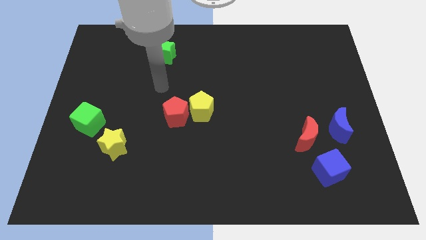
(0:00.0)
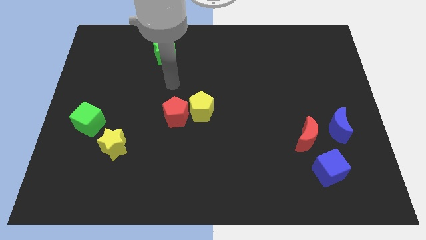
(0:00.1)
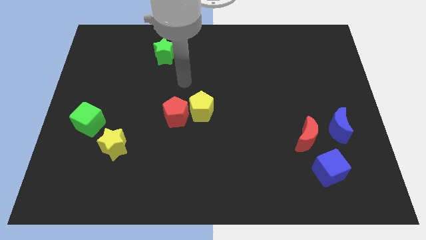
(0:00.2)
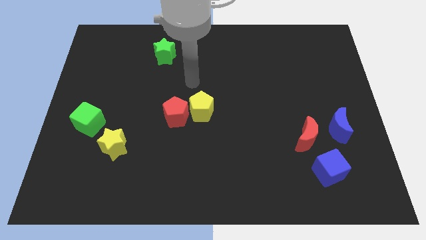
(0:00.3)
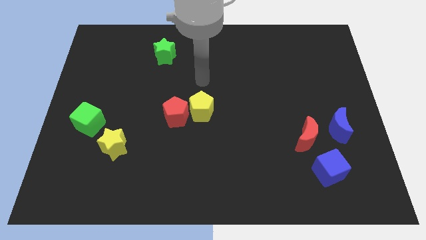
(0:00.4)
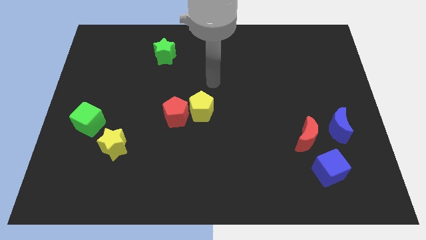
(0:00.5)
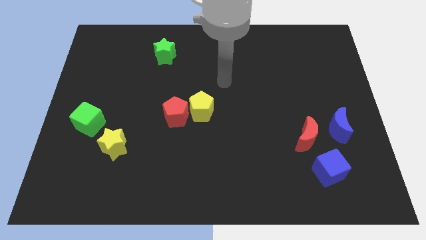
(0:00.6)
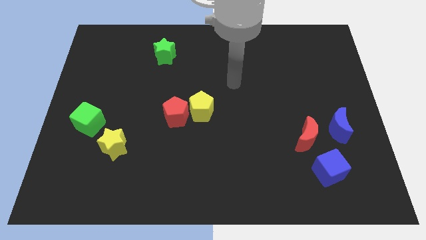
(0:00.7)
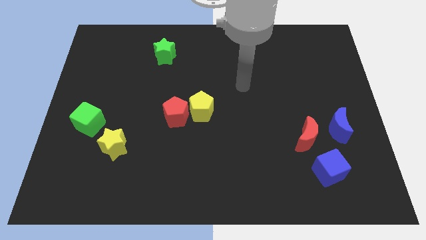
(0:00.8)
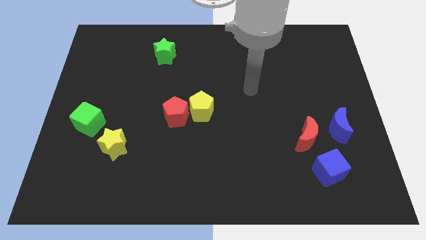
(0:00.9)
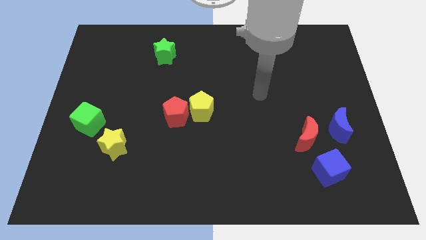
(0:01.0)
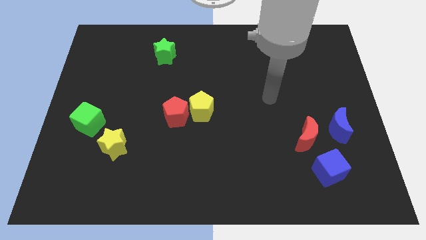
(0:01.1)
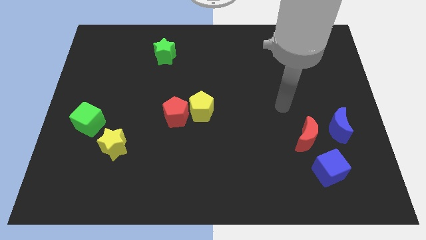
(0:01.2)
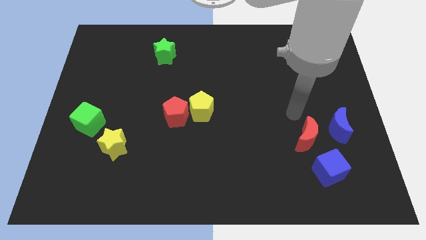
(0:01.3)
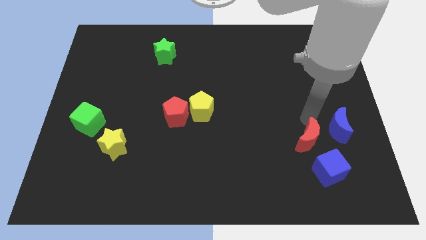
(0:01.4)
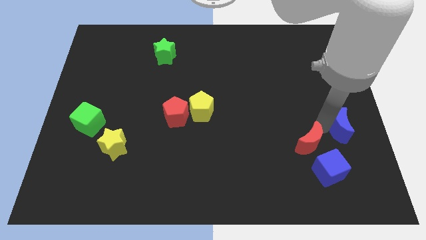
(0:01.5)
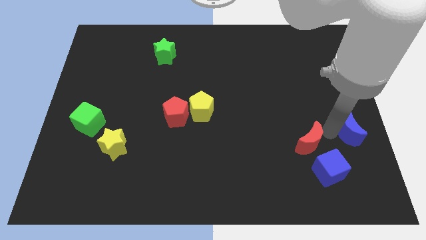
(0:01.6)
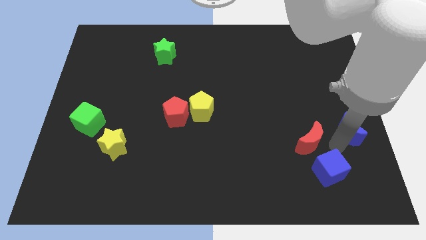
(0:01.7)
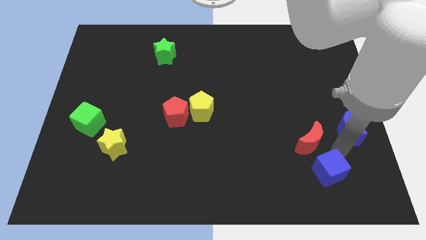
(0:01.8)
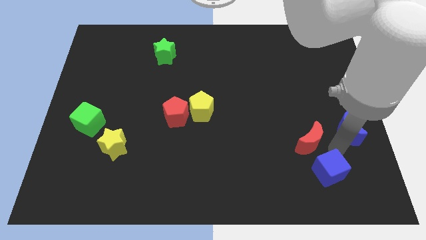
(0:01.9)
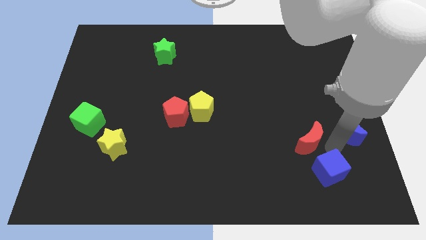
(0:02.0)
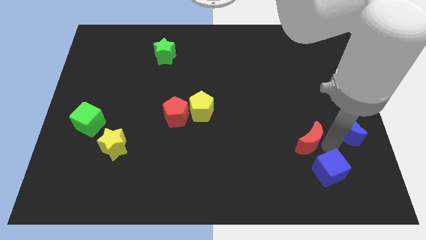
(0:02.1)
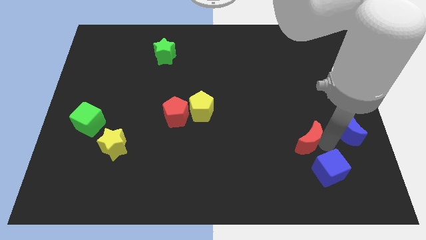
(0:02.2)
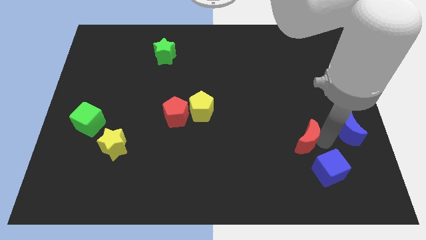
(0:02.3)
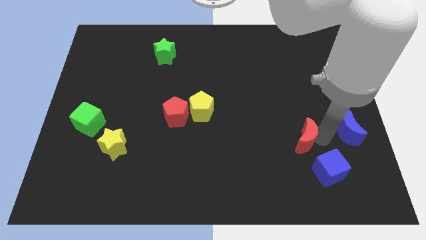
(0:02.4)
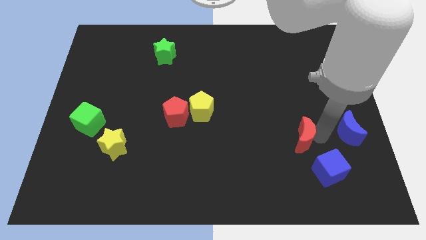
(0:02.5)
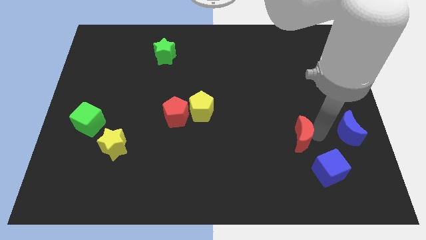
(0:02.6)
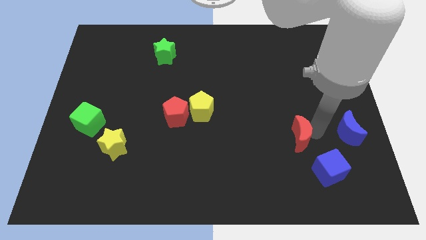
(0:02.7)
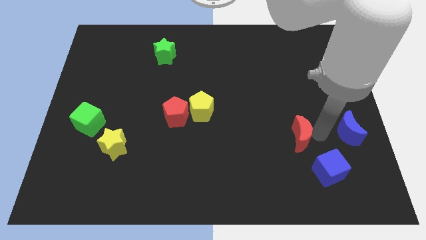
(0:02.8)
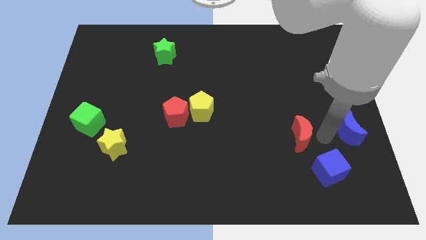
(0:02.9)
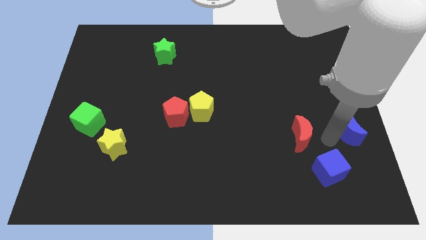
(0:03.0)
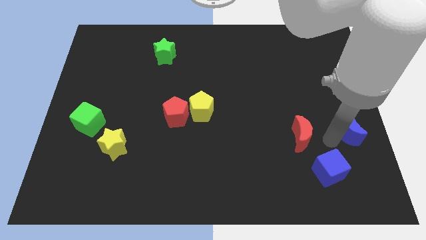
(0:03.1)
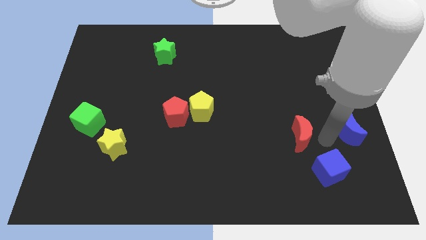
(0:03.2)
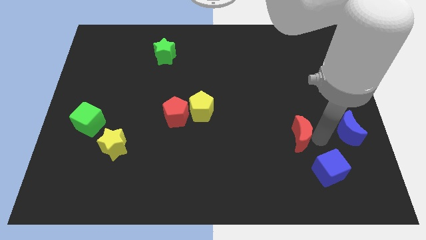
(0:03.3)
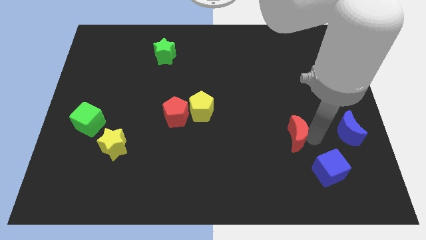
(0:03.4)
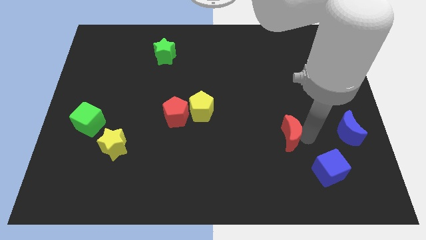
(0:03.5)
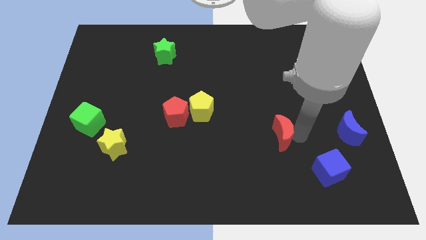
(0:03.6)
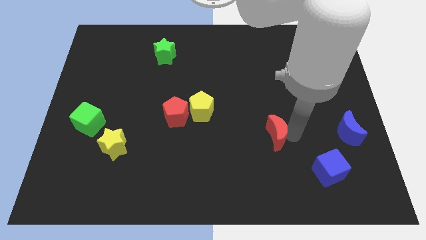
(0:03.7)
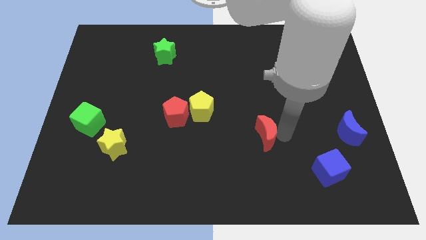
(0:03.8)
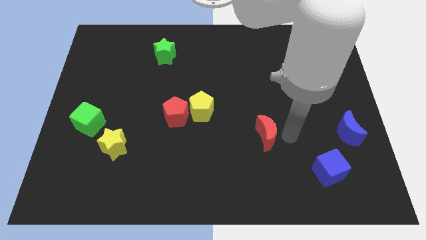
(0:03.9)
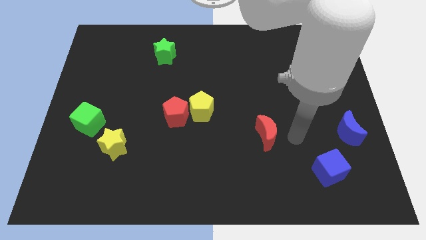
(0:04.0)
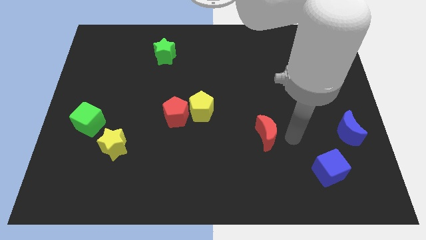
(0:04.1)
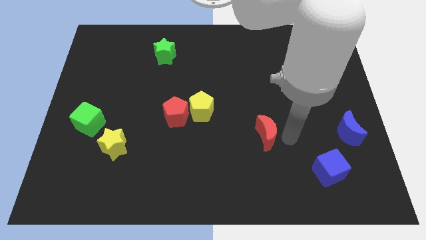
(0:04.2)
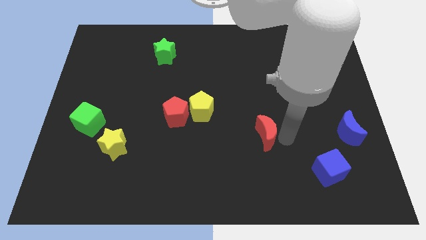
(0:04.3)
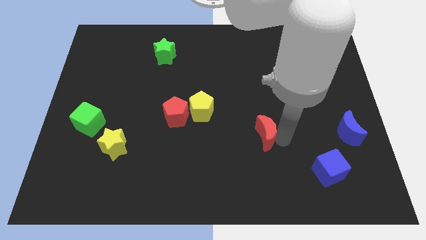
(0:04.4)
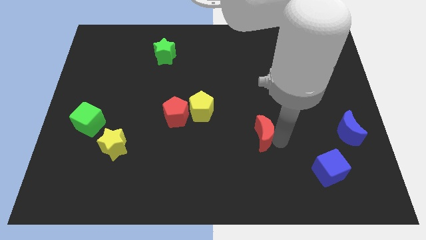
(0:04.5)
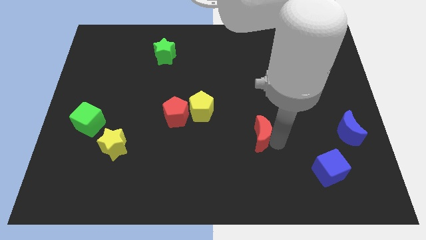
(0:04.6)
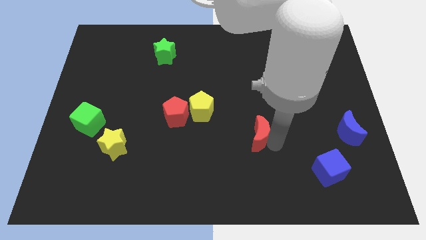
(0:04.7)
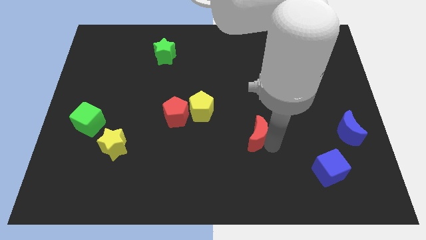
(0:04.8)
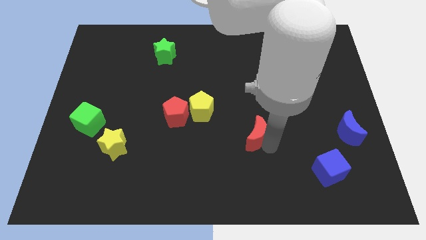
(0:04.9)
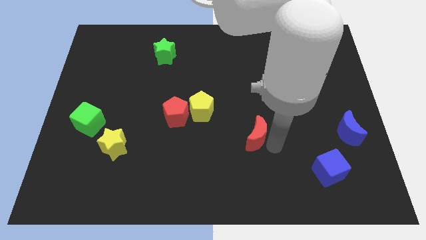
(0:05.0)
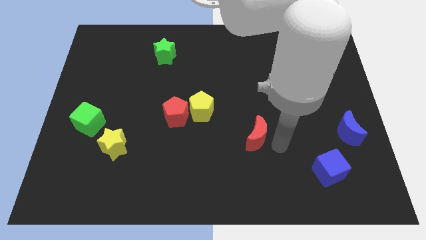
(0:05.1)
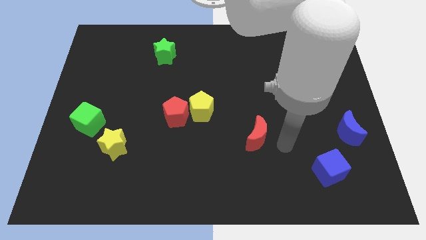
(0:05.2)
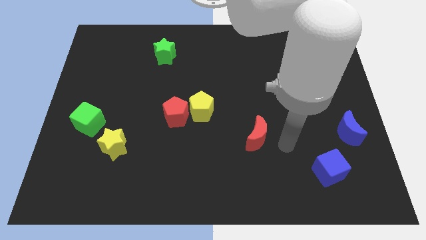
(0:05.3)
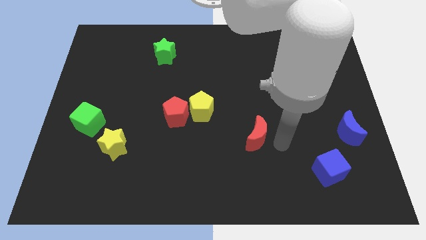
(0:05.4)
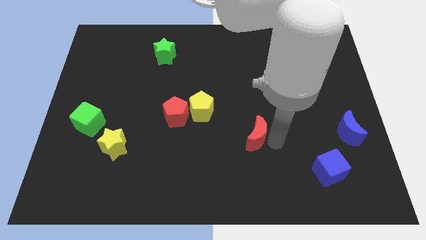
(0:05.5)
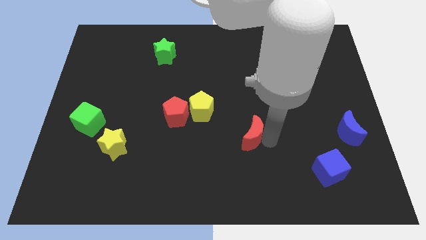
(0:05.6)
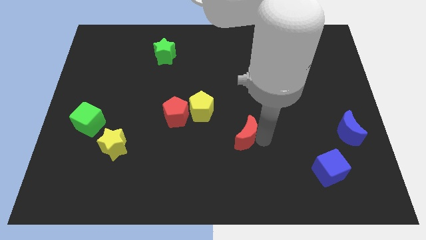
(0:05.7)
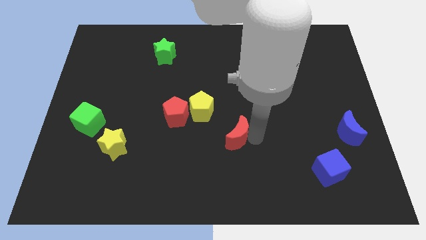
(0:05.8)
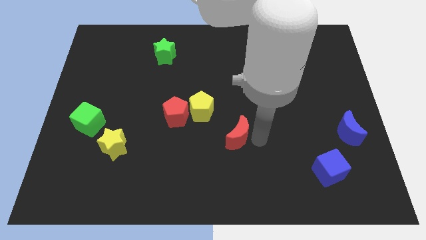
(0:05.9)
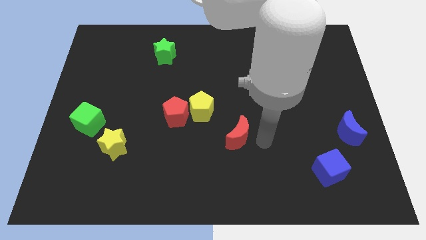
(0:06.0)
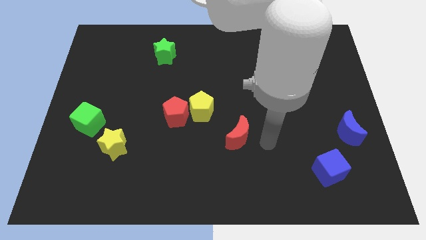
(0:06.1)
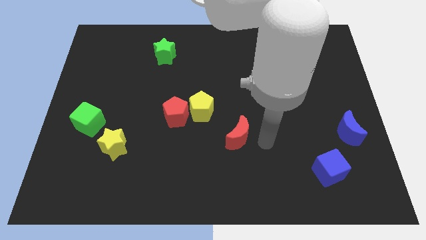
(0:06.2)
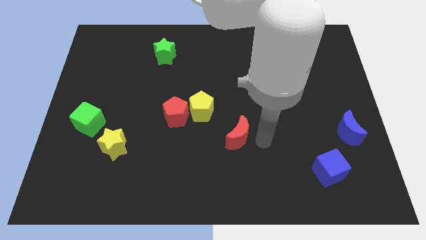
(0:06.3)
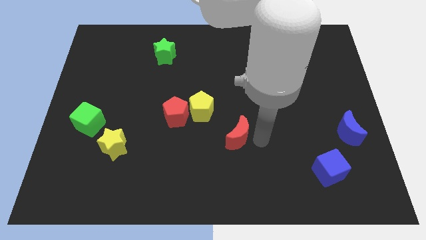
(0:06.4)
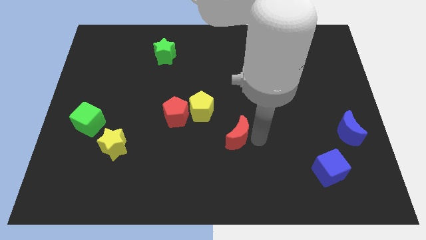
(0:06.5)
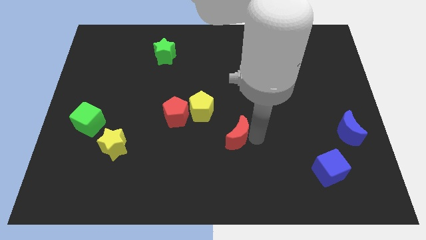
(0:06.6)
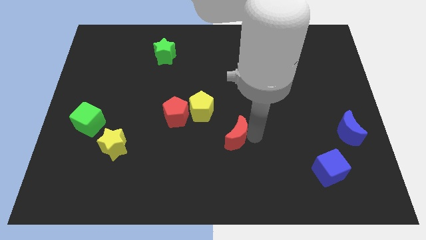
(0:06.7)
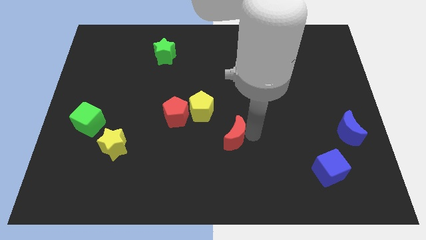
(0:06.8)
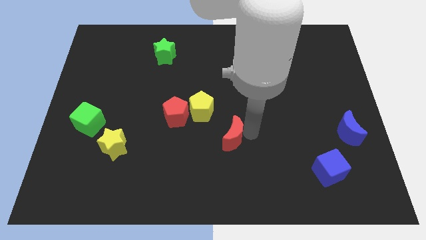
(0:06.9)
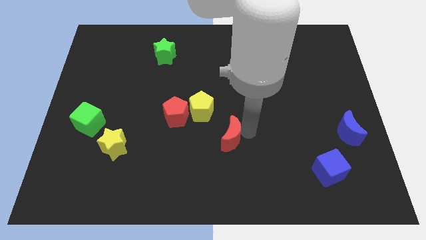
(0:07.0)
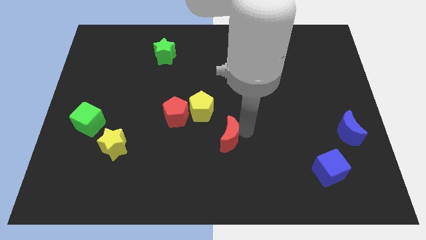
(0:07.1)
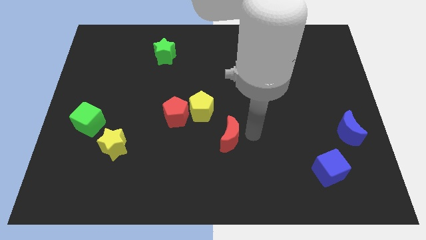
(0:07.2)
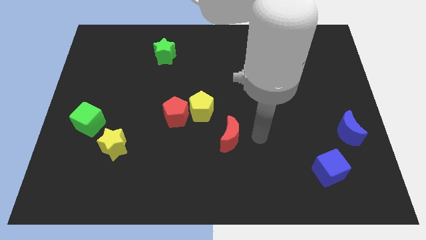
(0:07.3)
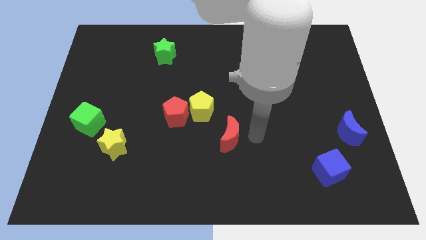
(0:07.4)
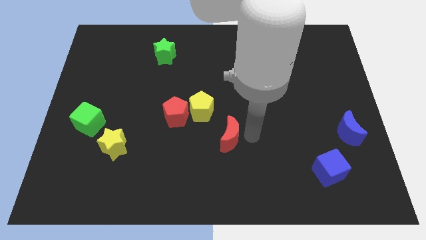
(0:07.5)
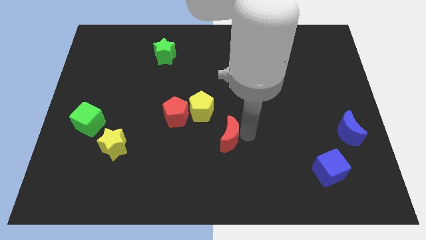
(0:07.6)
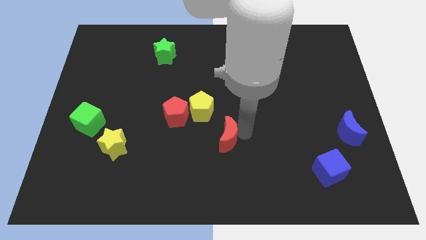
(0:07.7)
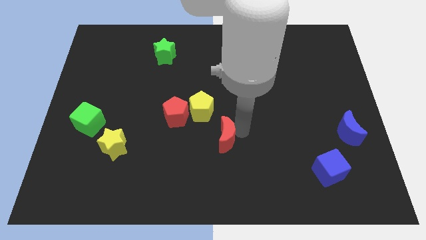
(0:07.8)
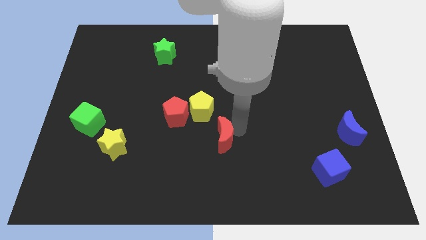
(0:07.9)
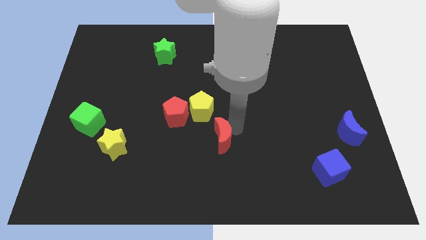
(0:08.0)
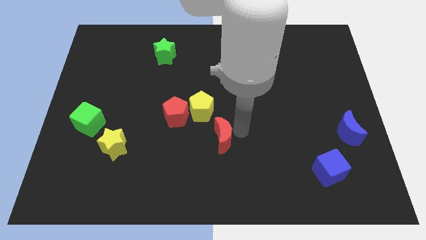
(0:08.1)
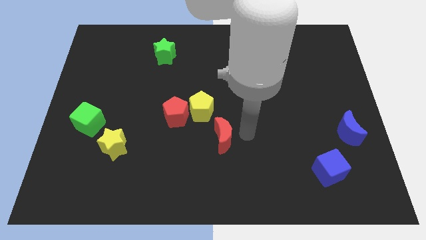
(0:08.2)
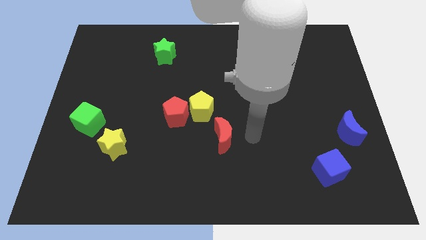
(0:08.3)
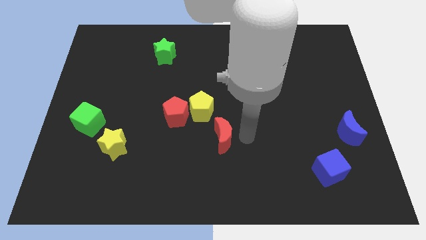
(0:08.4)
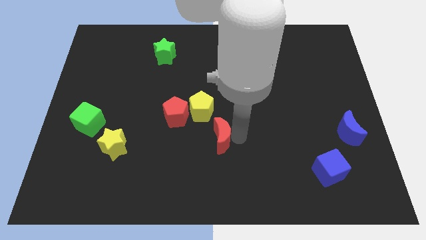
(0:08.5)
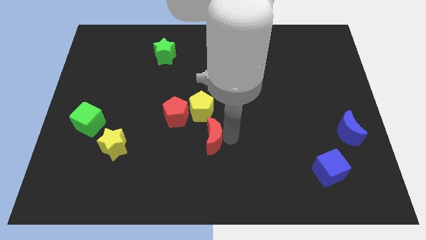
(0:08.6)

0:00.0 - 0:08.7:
move the red moon left
